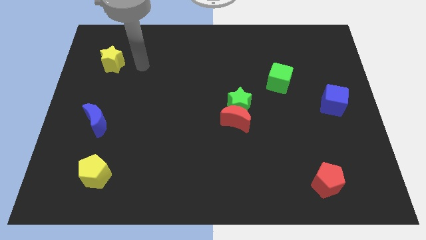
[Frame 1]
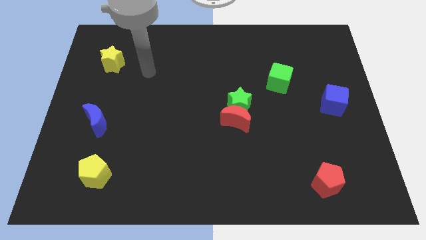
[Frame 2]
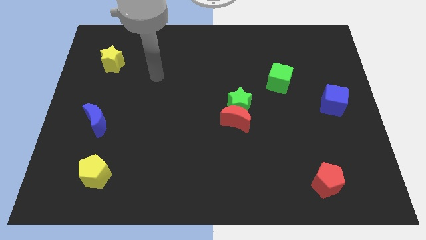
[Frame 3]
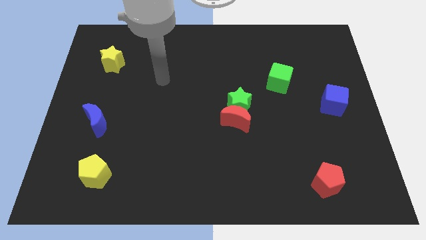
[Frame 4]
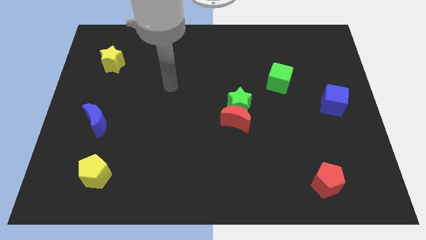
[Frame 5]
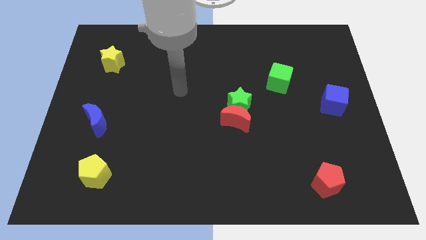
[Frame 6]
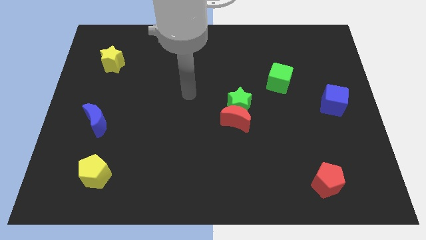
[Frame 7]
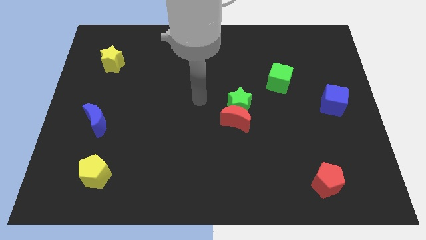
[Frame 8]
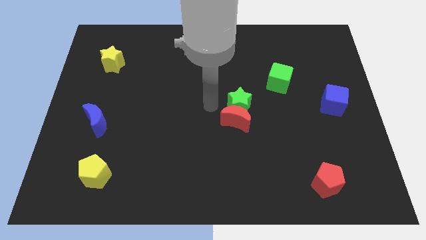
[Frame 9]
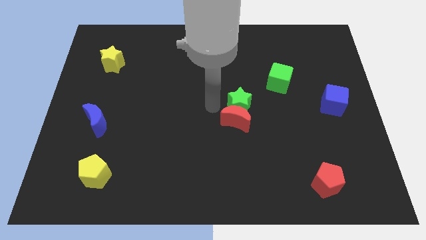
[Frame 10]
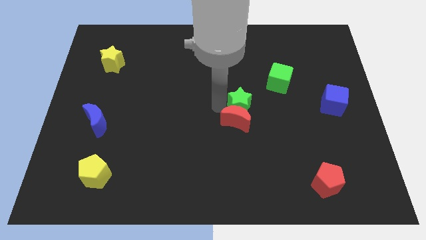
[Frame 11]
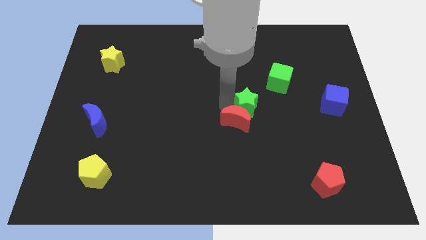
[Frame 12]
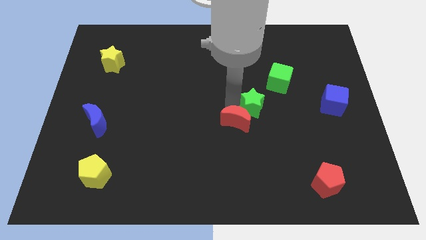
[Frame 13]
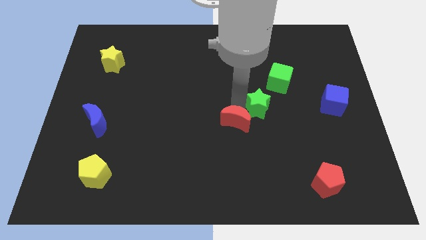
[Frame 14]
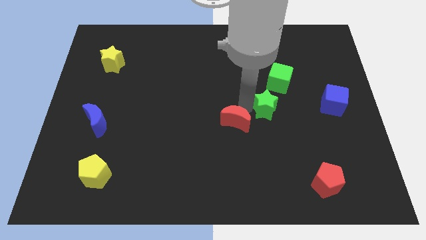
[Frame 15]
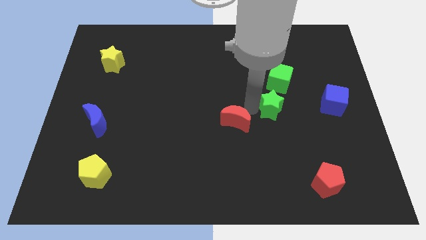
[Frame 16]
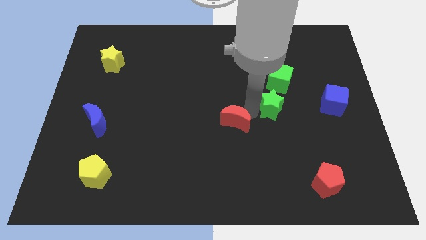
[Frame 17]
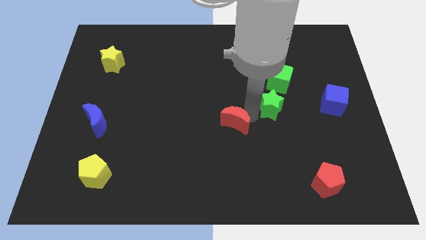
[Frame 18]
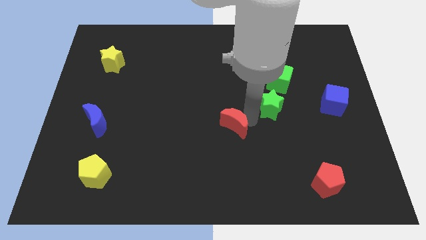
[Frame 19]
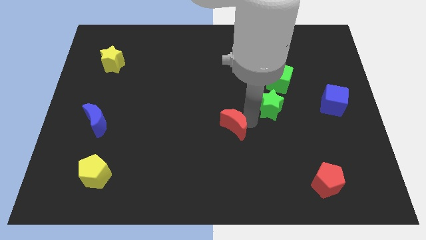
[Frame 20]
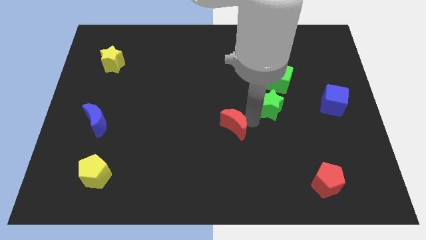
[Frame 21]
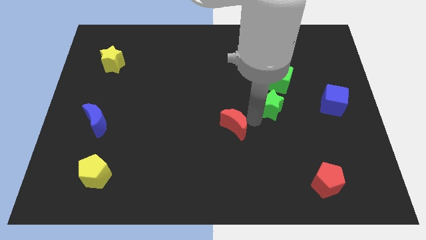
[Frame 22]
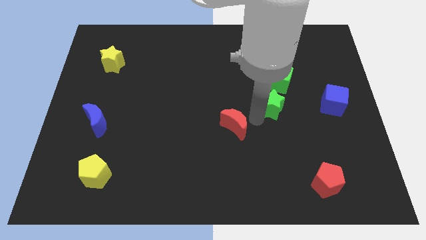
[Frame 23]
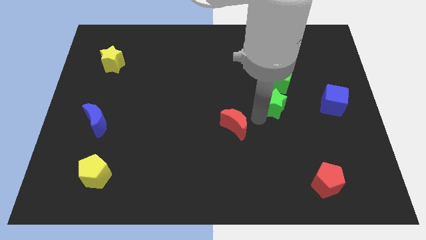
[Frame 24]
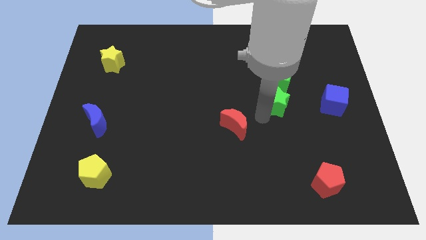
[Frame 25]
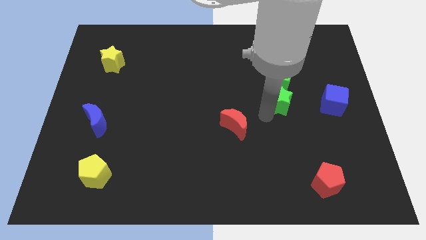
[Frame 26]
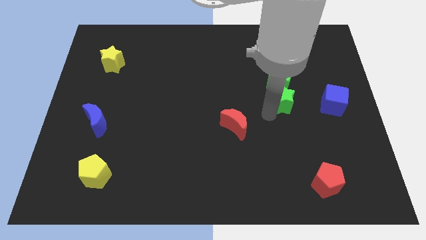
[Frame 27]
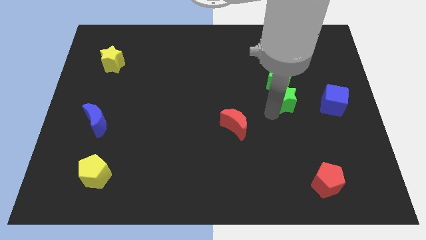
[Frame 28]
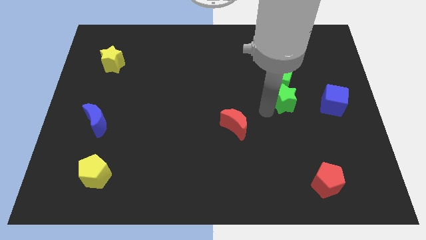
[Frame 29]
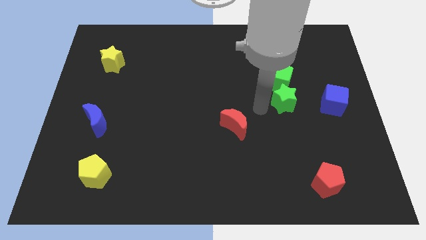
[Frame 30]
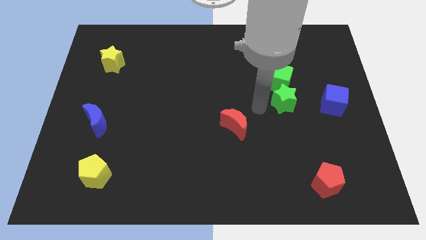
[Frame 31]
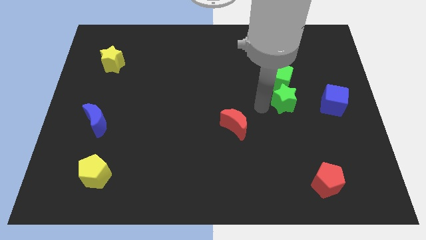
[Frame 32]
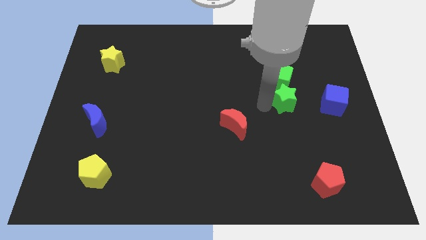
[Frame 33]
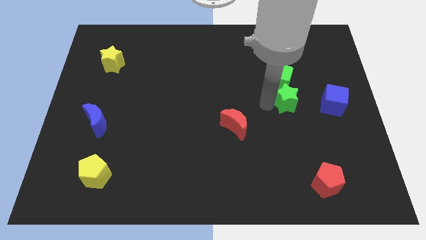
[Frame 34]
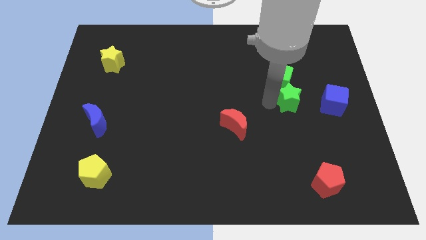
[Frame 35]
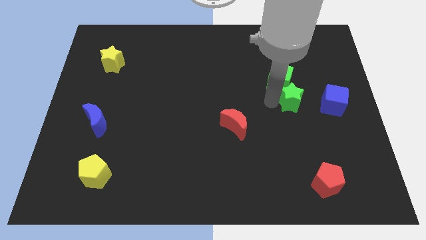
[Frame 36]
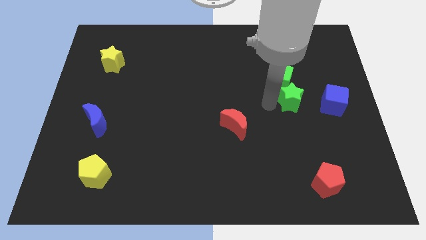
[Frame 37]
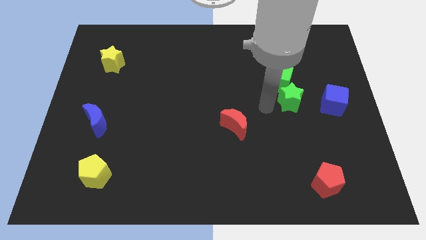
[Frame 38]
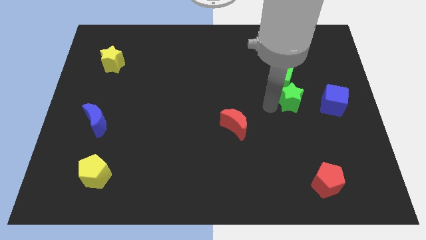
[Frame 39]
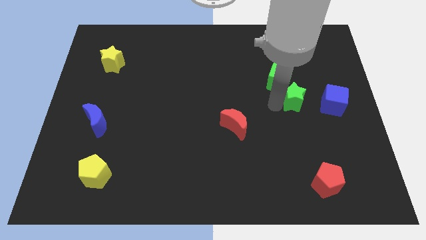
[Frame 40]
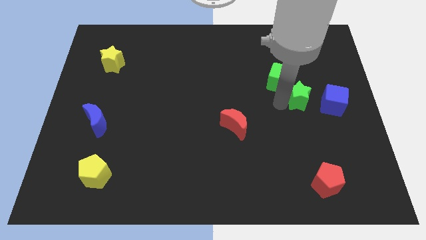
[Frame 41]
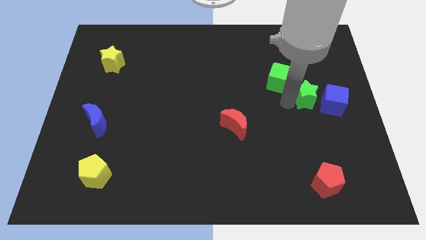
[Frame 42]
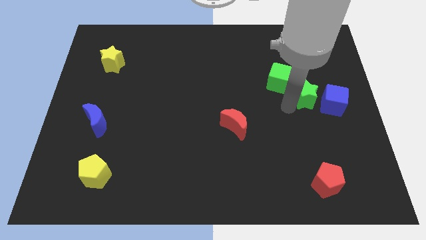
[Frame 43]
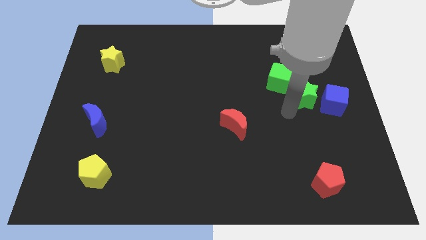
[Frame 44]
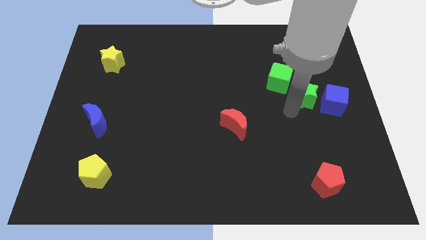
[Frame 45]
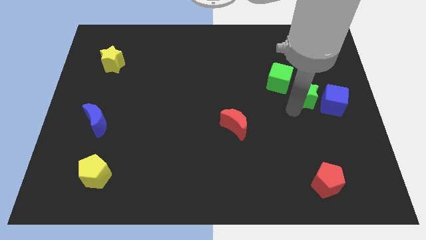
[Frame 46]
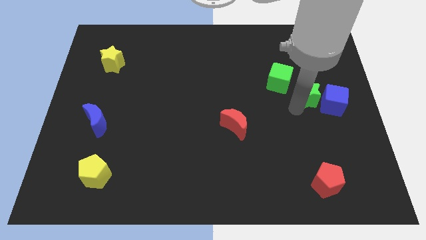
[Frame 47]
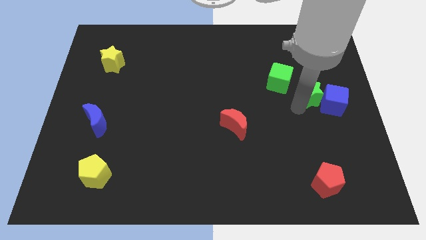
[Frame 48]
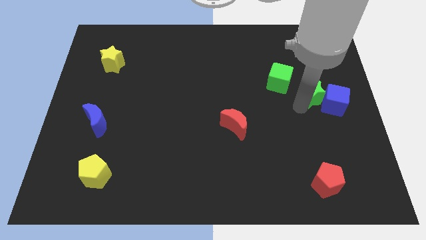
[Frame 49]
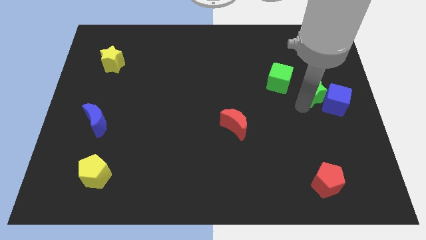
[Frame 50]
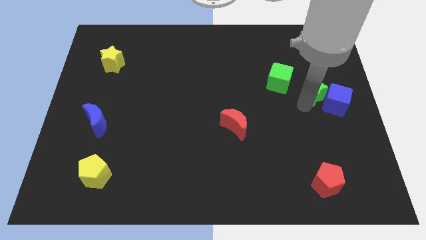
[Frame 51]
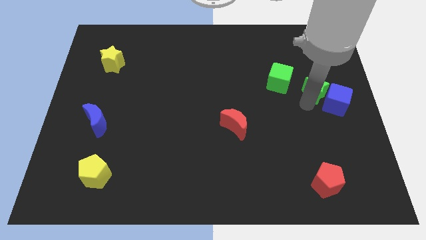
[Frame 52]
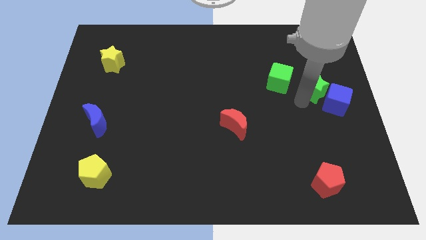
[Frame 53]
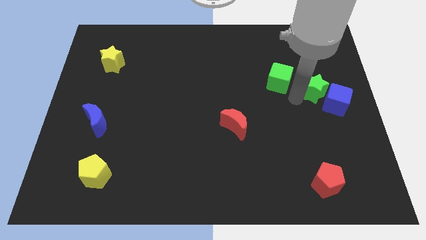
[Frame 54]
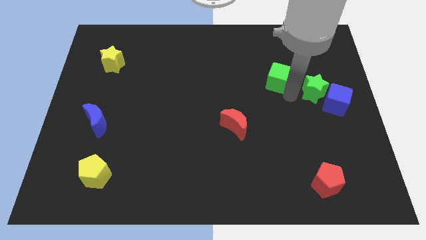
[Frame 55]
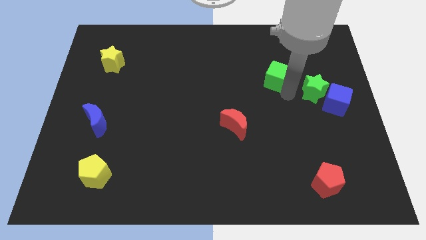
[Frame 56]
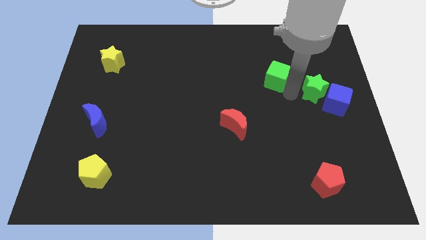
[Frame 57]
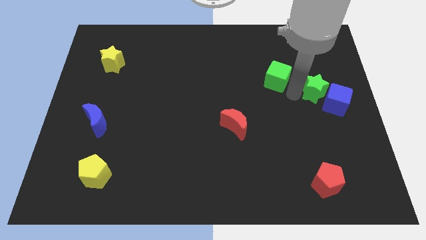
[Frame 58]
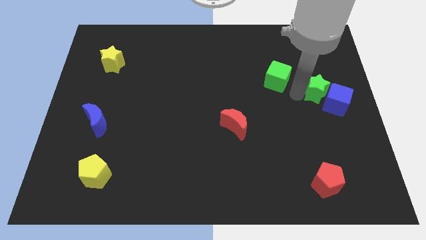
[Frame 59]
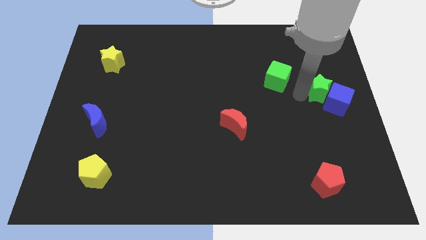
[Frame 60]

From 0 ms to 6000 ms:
move the green star to the center right

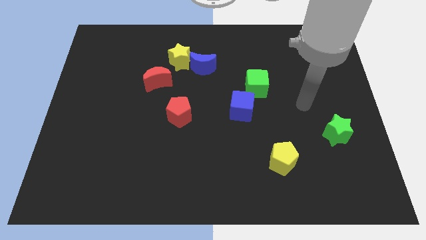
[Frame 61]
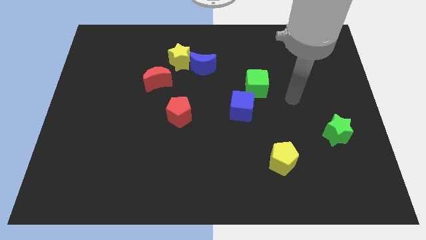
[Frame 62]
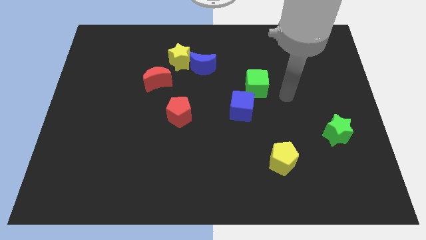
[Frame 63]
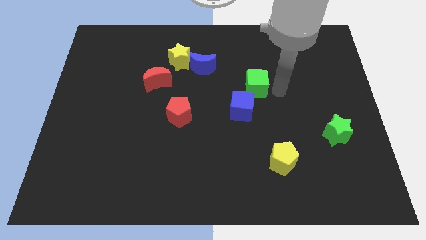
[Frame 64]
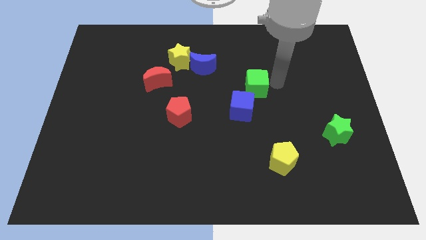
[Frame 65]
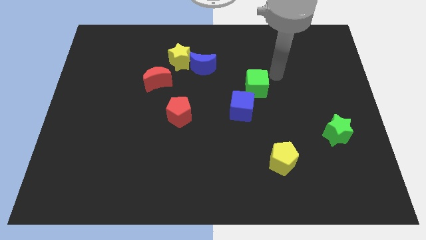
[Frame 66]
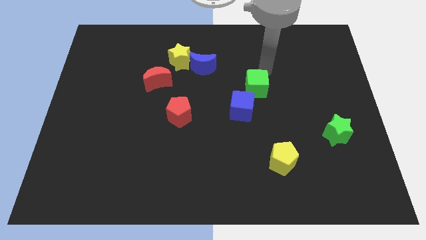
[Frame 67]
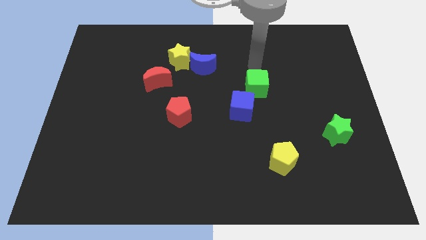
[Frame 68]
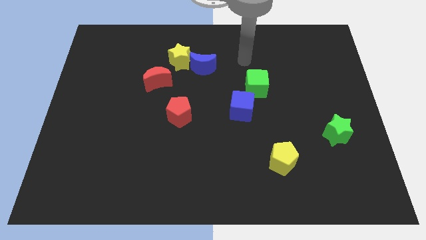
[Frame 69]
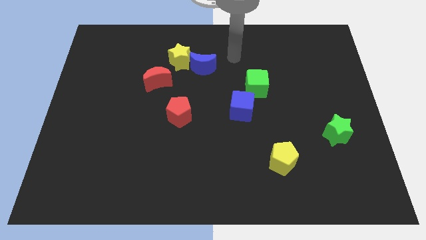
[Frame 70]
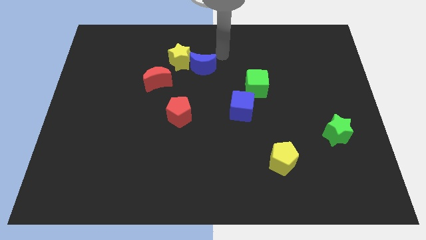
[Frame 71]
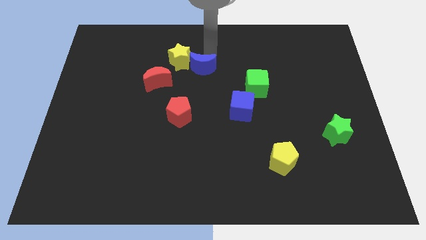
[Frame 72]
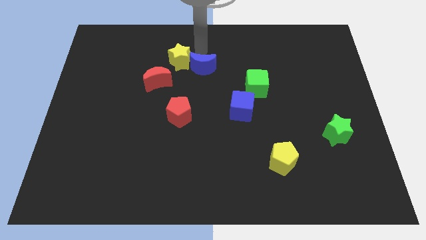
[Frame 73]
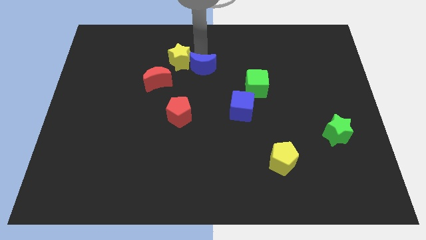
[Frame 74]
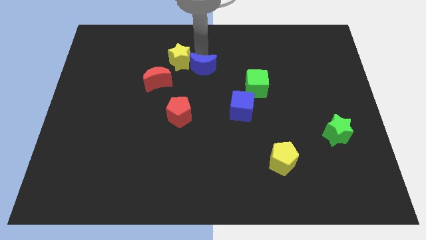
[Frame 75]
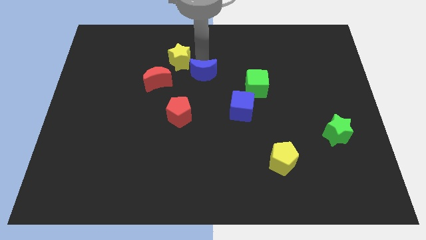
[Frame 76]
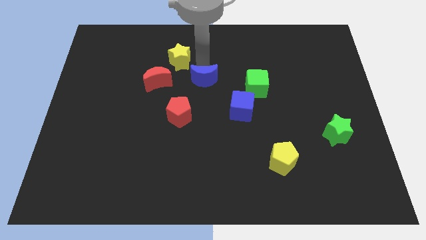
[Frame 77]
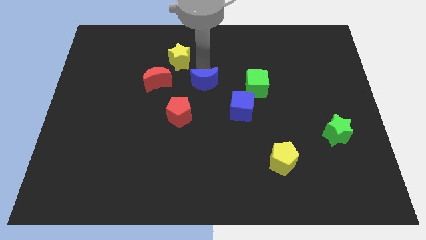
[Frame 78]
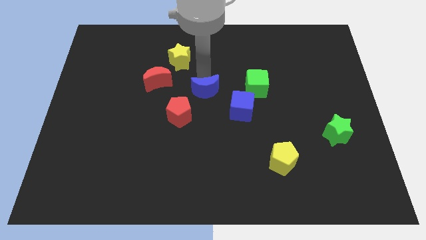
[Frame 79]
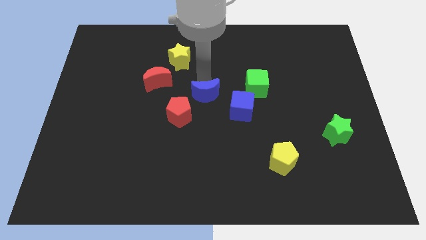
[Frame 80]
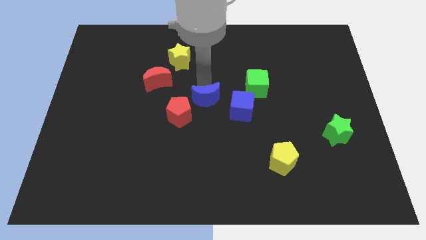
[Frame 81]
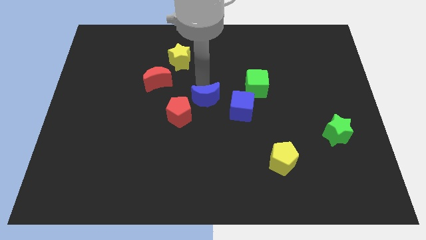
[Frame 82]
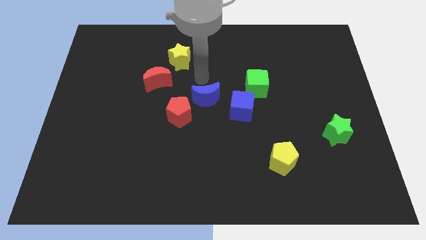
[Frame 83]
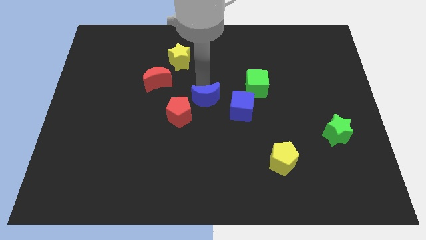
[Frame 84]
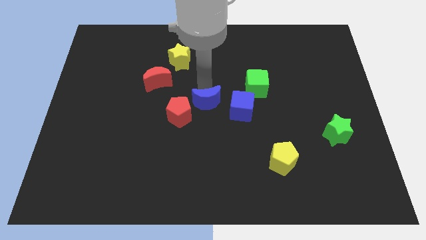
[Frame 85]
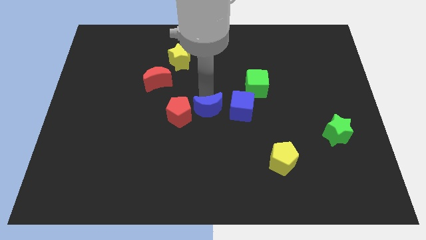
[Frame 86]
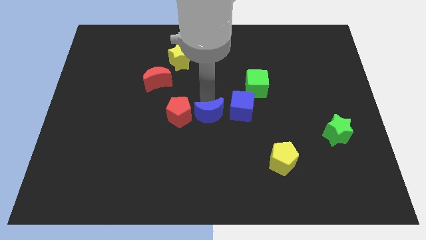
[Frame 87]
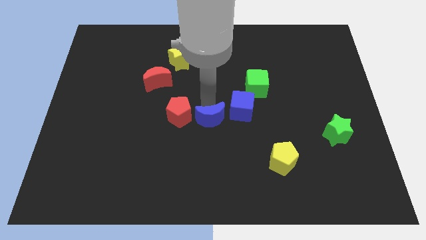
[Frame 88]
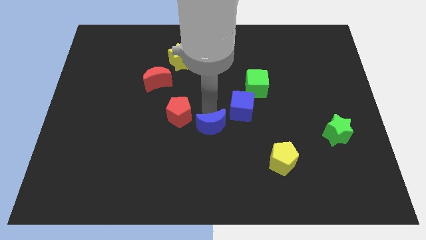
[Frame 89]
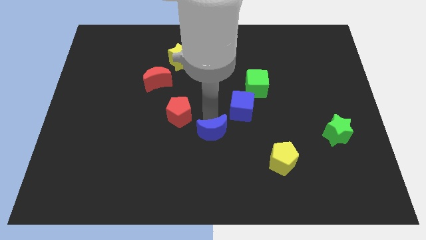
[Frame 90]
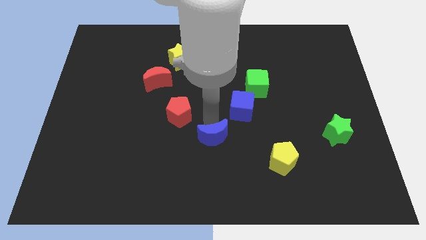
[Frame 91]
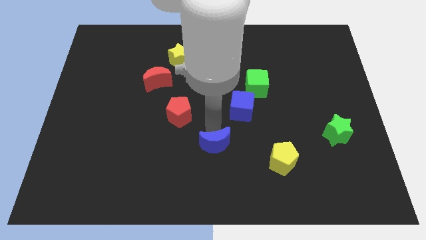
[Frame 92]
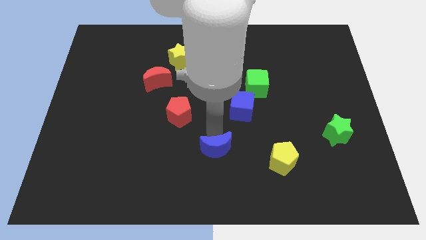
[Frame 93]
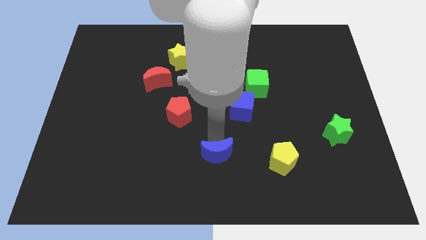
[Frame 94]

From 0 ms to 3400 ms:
put the blue moon to the bottom
